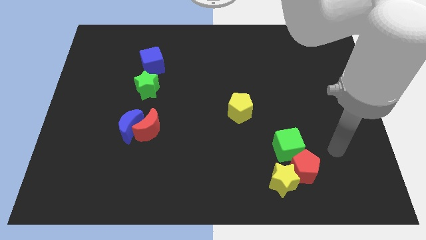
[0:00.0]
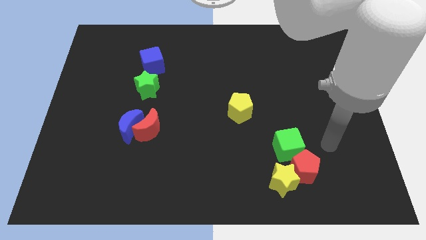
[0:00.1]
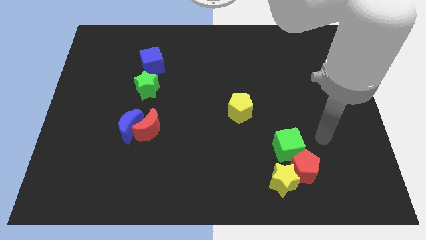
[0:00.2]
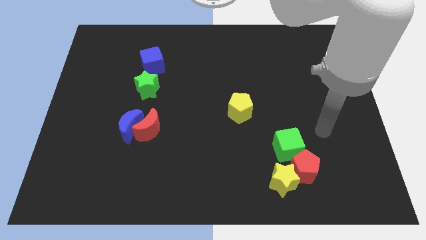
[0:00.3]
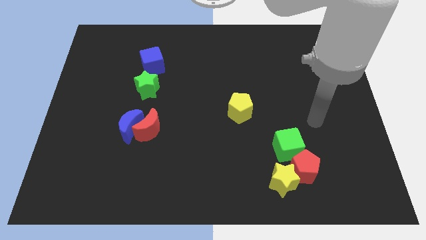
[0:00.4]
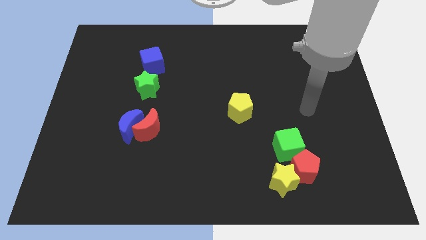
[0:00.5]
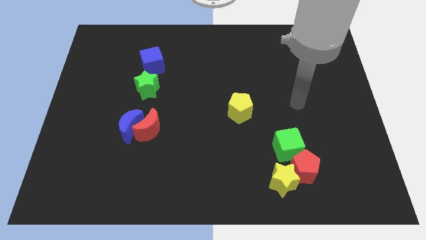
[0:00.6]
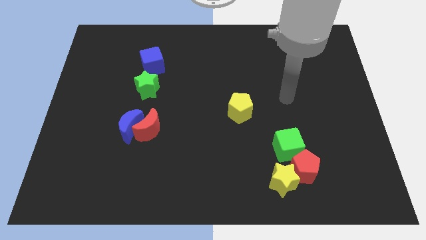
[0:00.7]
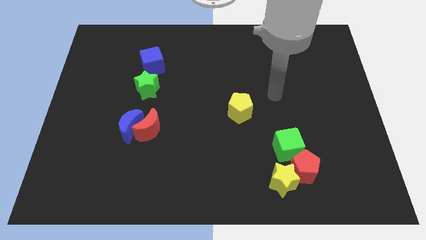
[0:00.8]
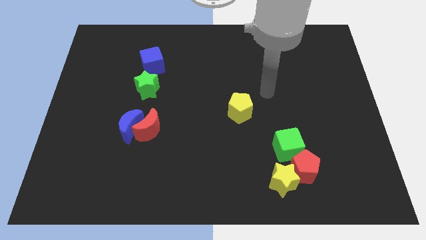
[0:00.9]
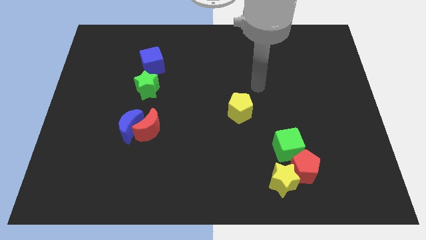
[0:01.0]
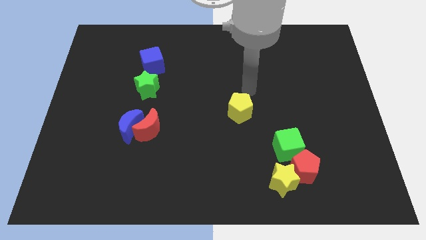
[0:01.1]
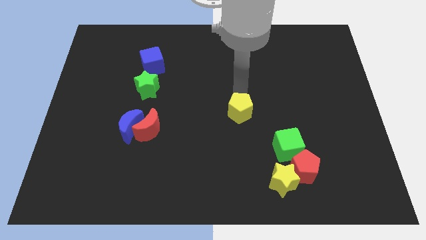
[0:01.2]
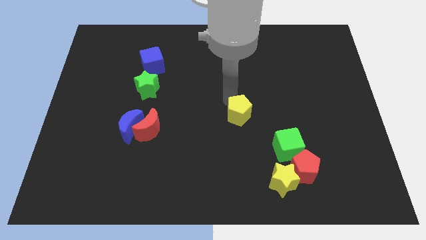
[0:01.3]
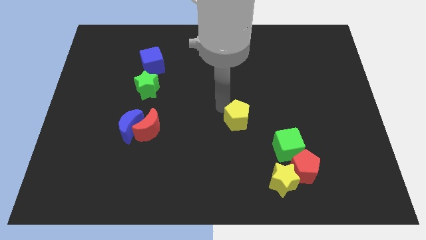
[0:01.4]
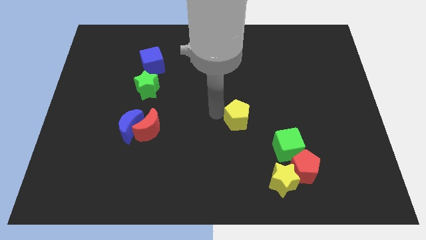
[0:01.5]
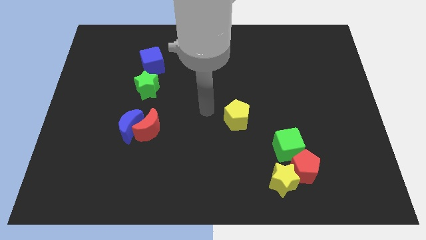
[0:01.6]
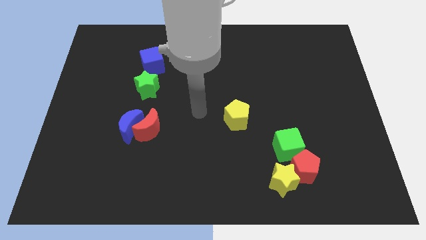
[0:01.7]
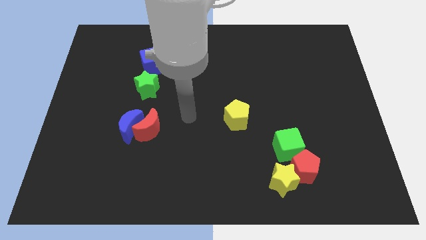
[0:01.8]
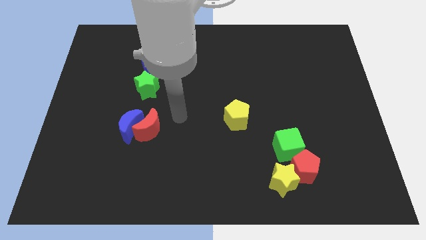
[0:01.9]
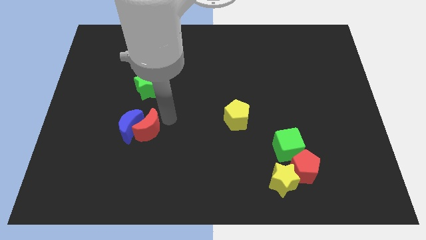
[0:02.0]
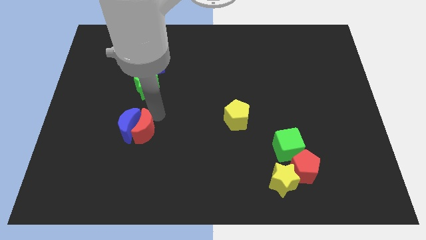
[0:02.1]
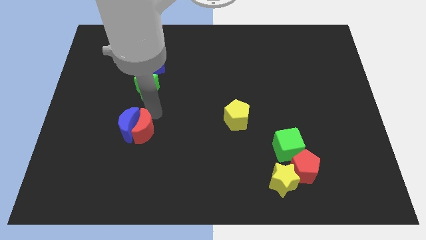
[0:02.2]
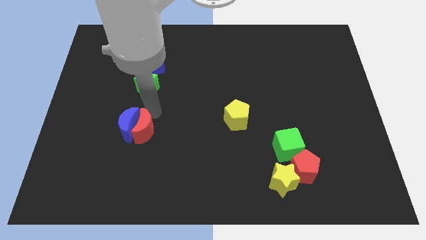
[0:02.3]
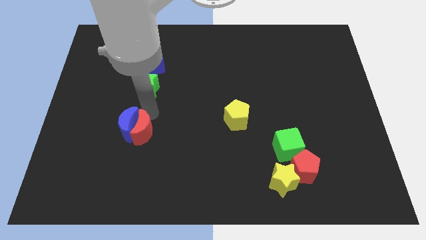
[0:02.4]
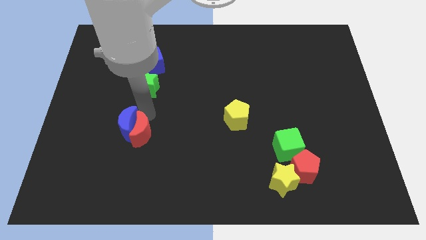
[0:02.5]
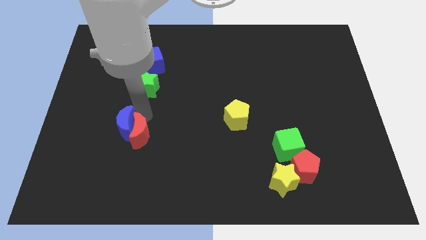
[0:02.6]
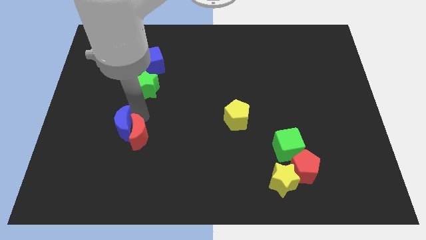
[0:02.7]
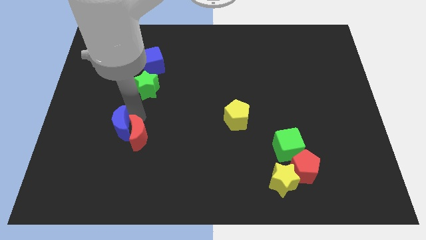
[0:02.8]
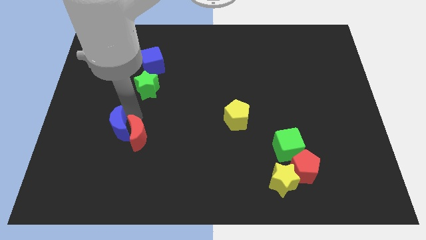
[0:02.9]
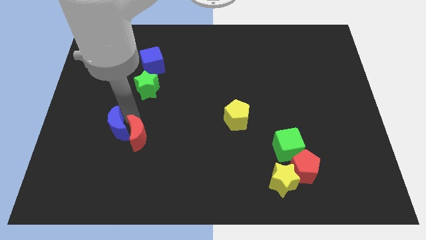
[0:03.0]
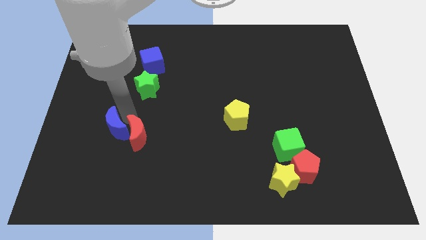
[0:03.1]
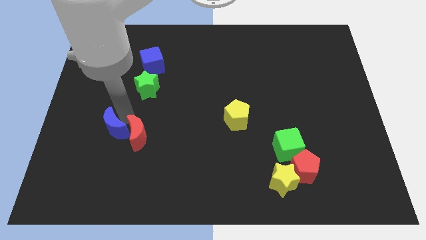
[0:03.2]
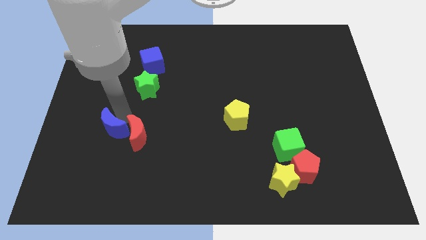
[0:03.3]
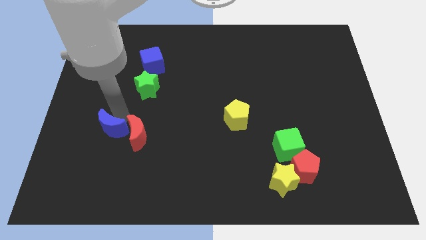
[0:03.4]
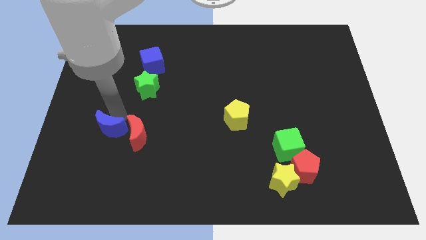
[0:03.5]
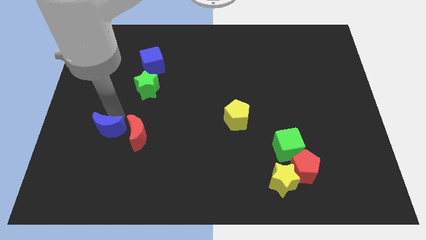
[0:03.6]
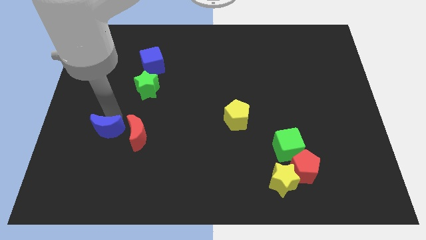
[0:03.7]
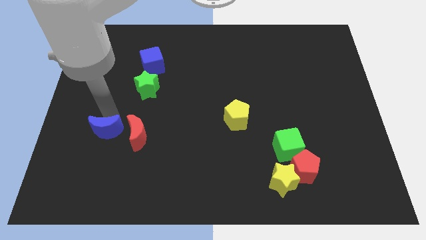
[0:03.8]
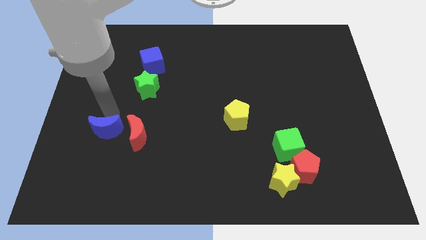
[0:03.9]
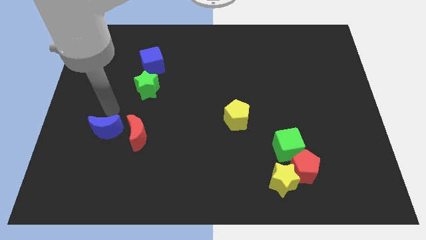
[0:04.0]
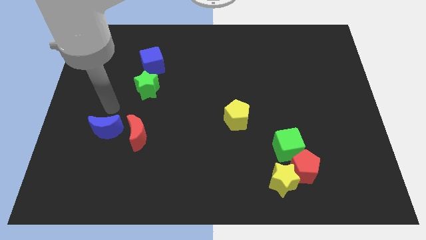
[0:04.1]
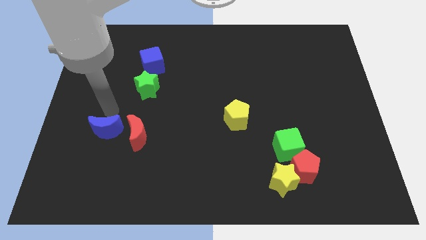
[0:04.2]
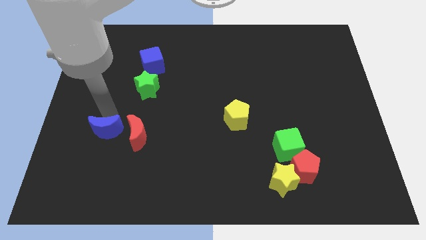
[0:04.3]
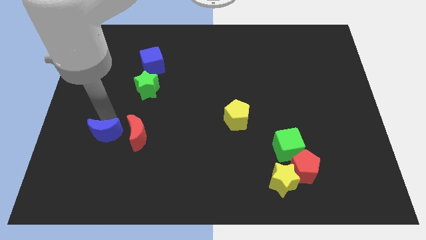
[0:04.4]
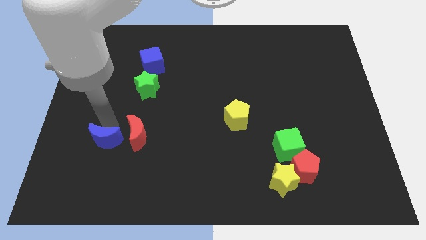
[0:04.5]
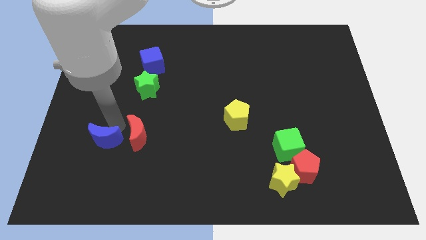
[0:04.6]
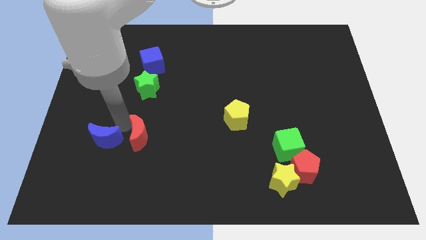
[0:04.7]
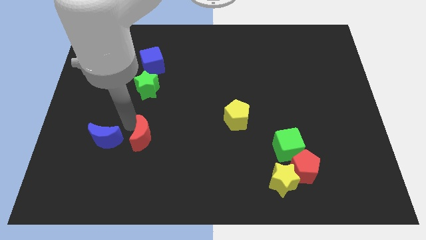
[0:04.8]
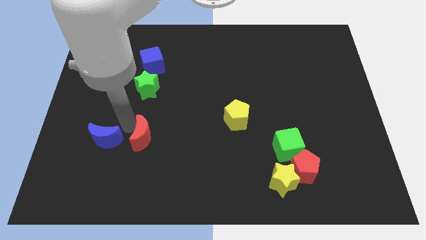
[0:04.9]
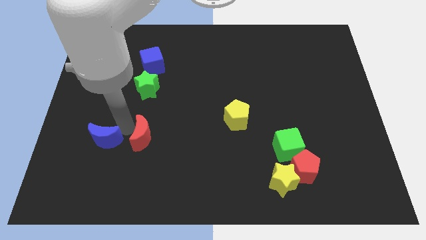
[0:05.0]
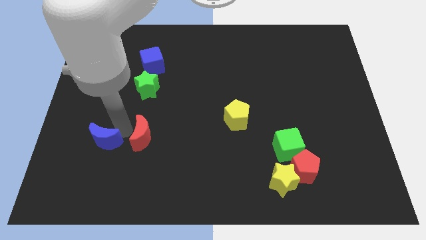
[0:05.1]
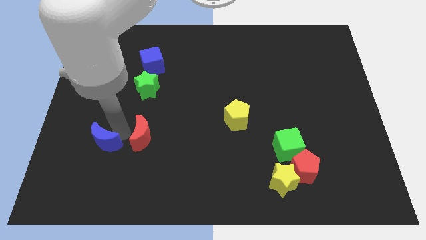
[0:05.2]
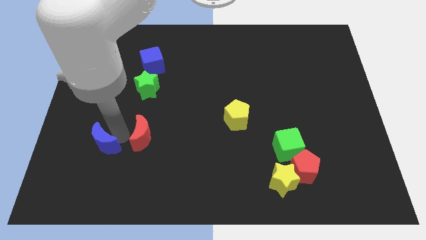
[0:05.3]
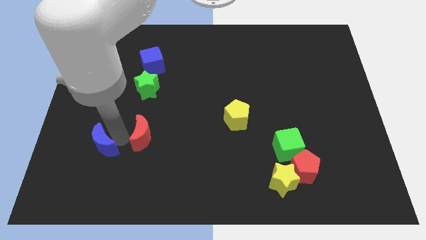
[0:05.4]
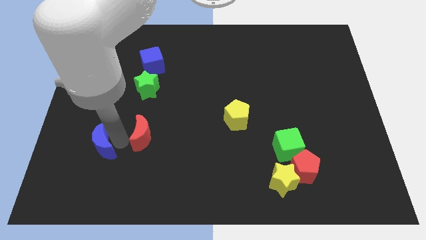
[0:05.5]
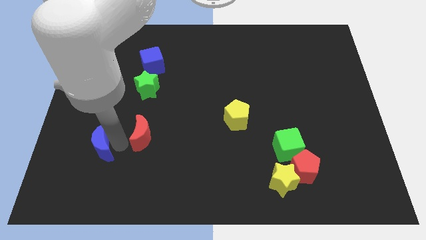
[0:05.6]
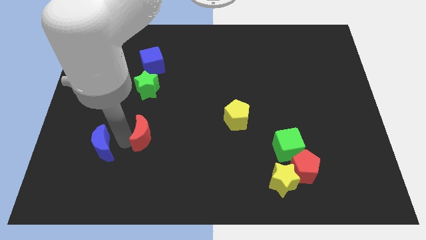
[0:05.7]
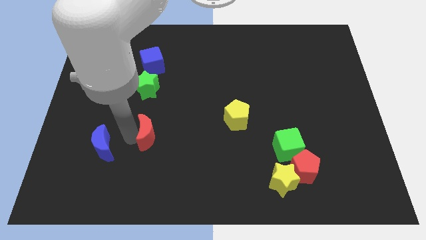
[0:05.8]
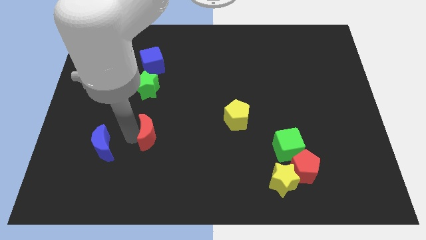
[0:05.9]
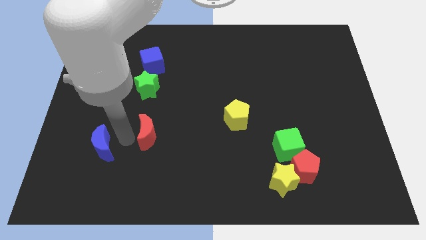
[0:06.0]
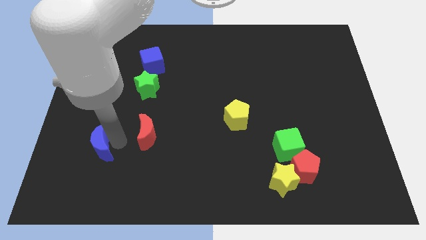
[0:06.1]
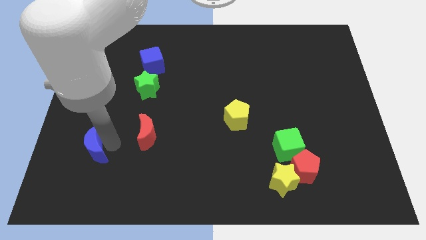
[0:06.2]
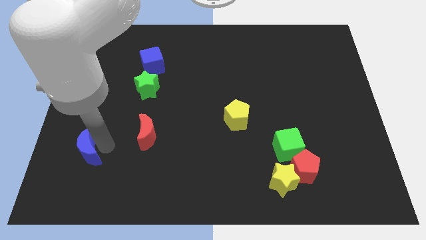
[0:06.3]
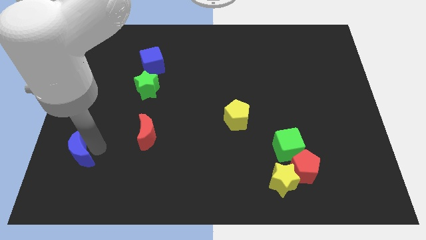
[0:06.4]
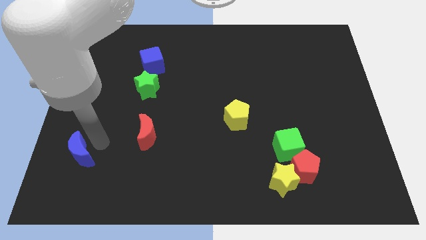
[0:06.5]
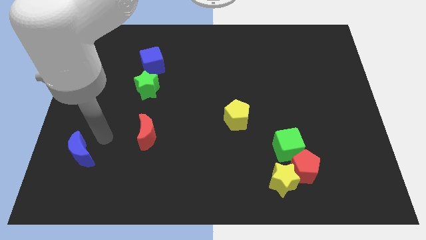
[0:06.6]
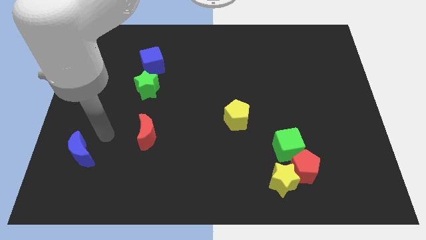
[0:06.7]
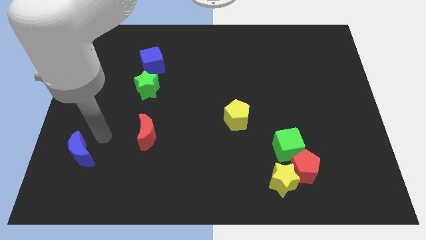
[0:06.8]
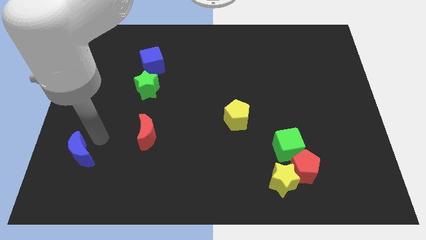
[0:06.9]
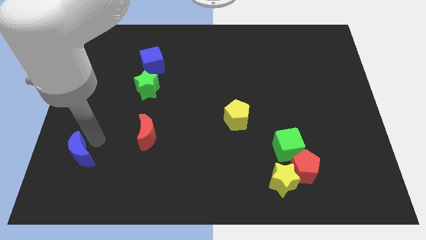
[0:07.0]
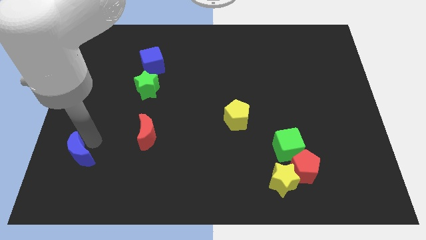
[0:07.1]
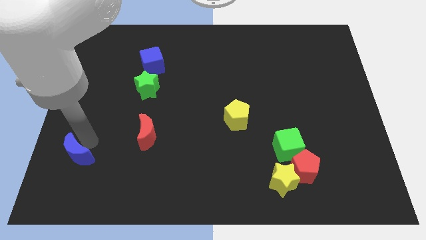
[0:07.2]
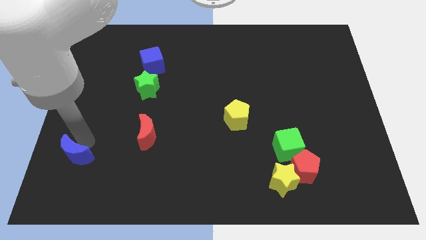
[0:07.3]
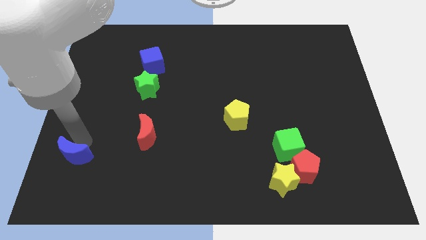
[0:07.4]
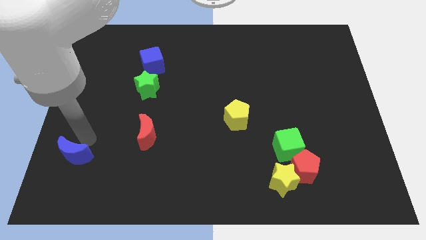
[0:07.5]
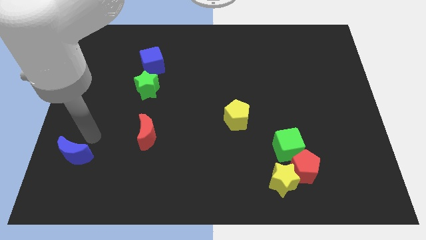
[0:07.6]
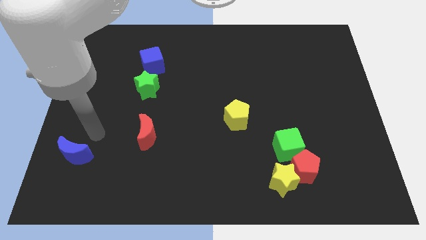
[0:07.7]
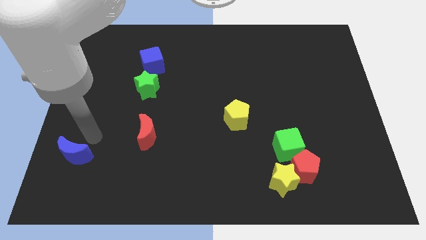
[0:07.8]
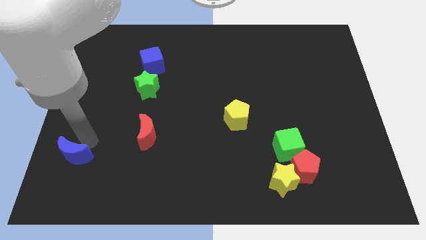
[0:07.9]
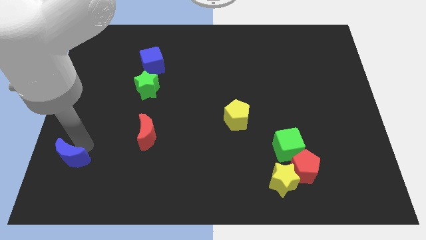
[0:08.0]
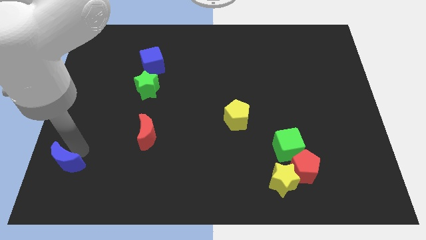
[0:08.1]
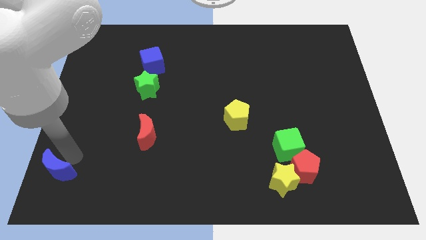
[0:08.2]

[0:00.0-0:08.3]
slide the blue moon to the bottom left of the board
